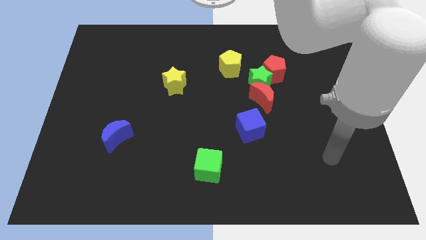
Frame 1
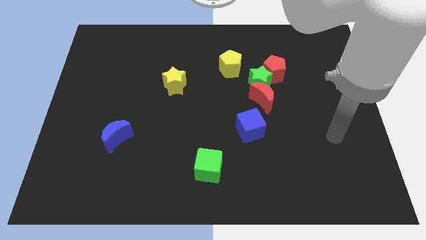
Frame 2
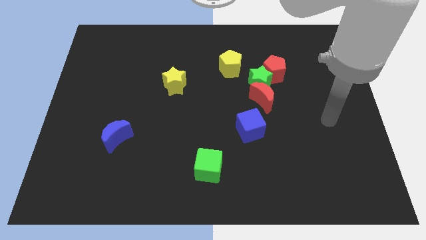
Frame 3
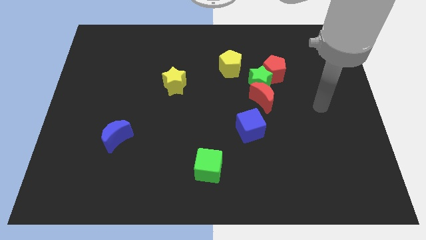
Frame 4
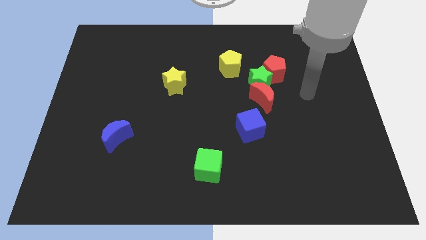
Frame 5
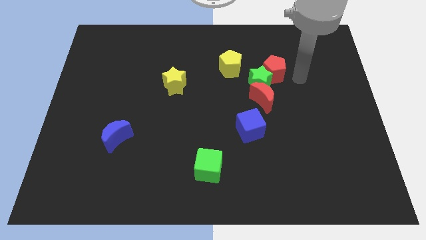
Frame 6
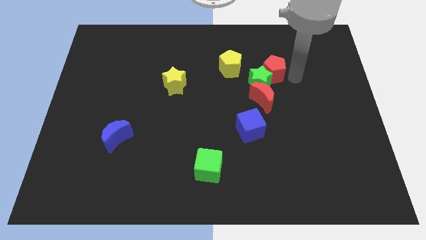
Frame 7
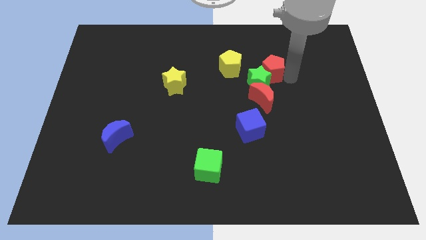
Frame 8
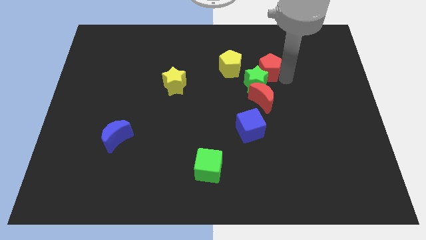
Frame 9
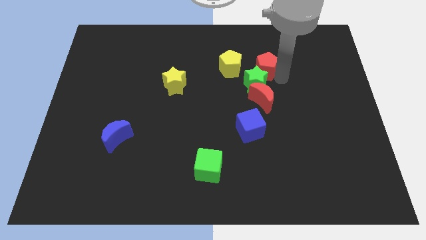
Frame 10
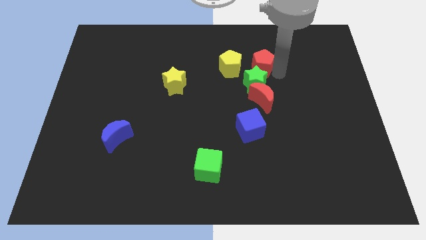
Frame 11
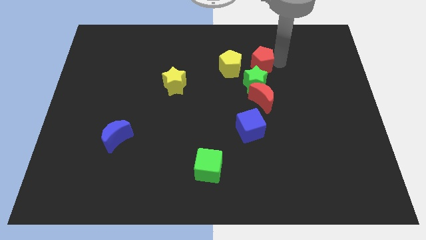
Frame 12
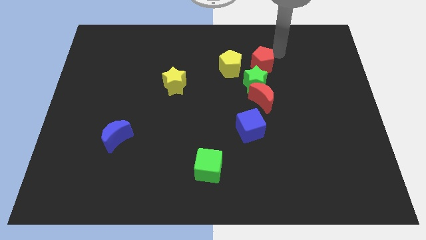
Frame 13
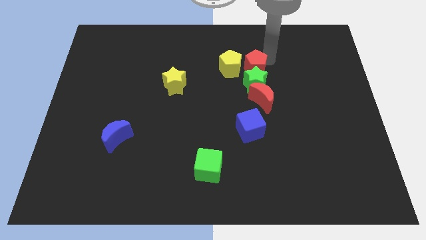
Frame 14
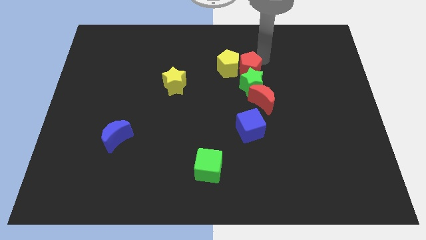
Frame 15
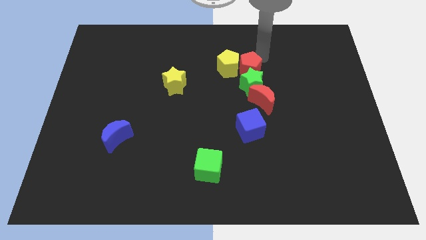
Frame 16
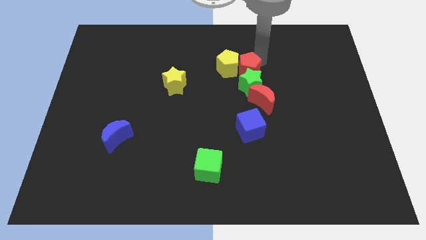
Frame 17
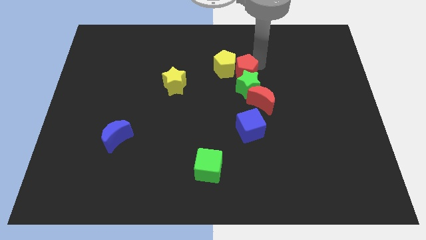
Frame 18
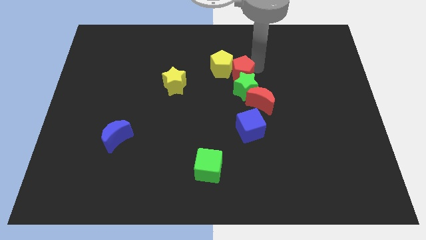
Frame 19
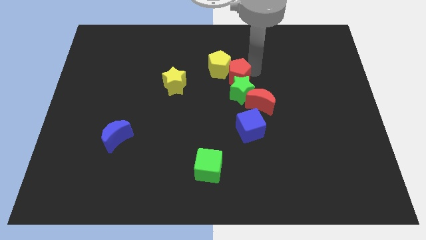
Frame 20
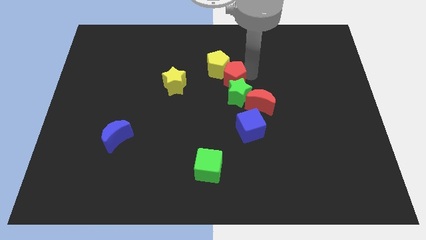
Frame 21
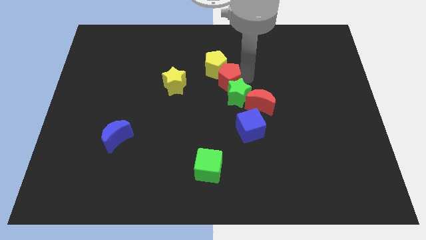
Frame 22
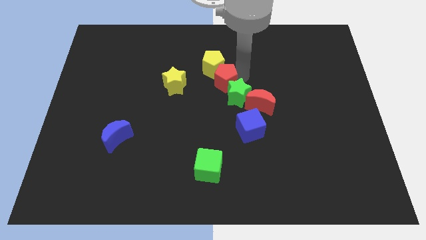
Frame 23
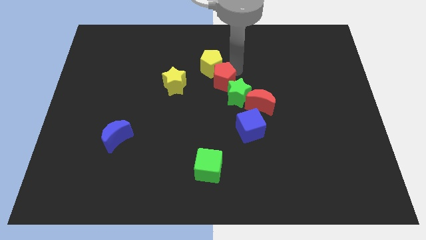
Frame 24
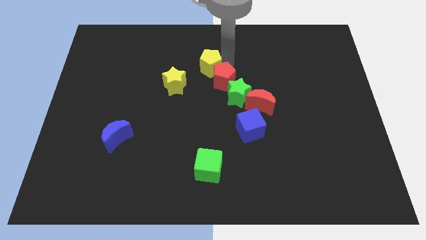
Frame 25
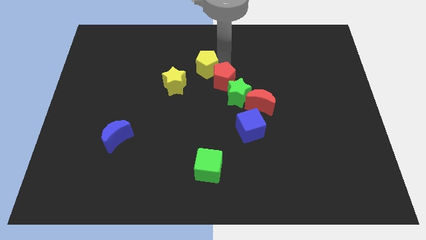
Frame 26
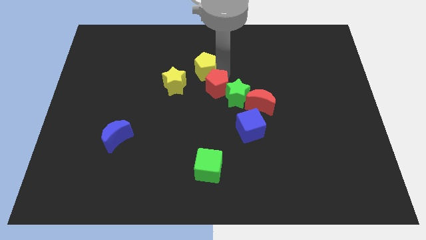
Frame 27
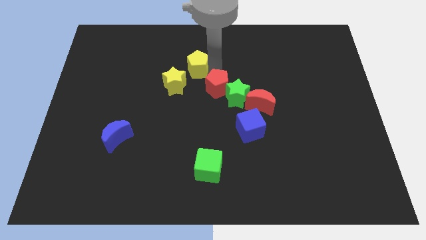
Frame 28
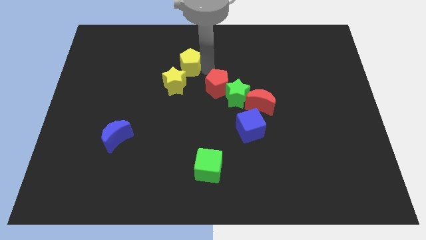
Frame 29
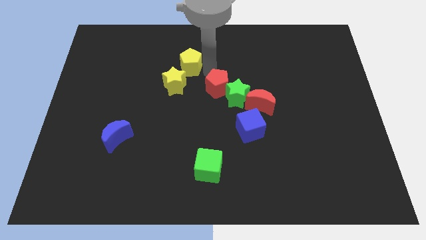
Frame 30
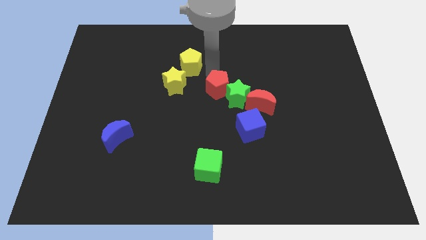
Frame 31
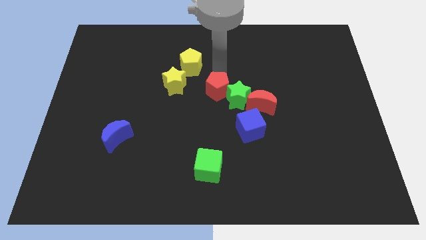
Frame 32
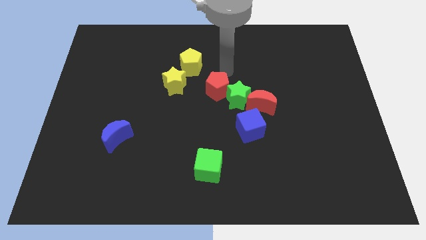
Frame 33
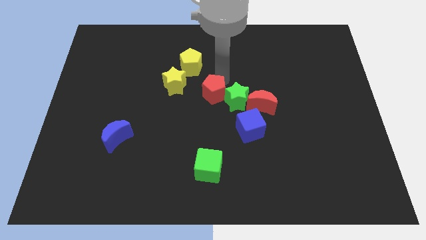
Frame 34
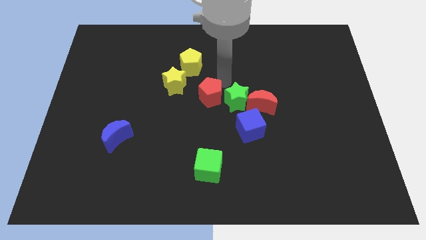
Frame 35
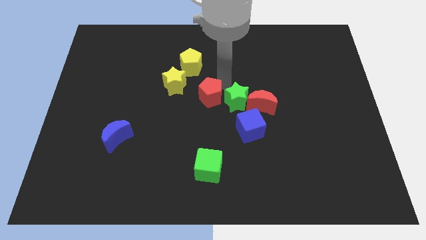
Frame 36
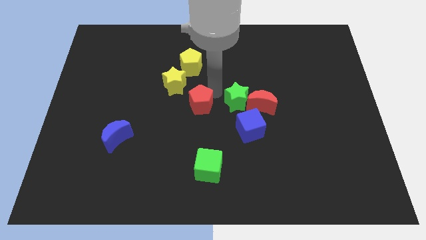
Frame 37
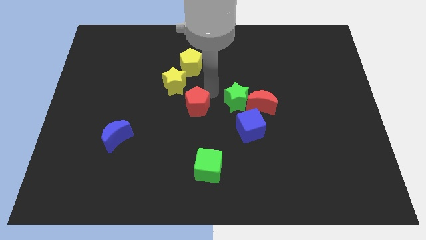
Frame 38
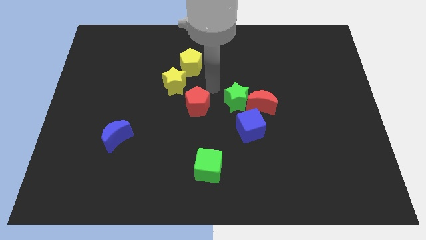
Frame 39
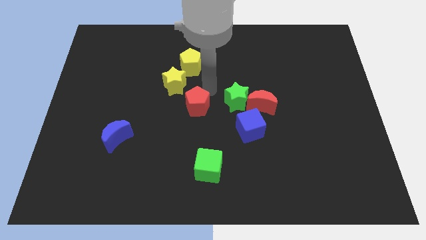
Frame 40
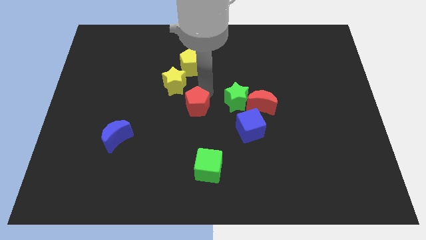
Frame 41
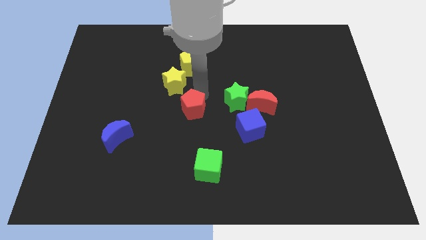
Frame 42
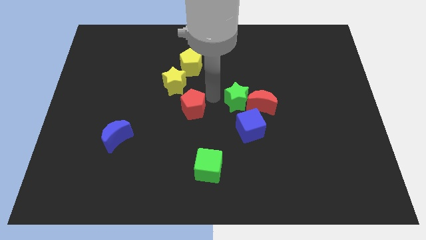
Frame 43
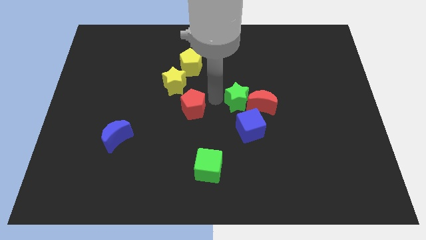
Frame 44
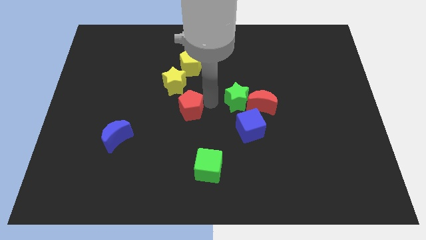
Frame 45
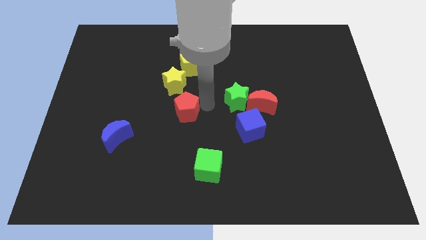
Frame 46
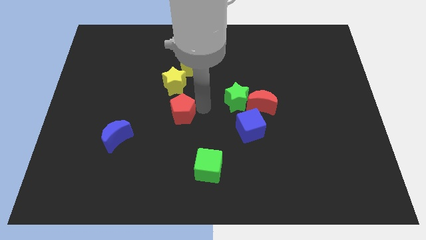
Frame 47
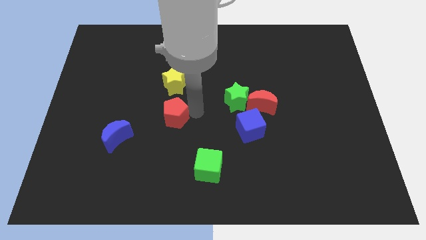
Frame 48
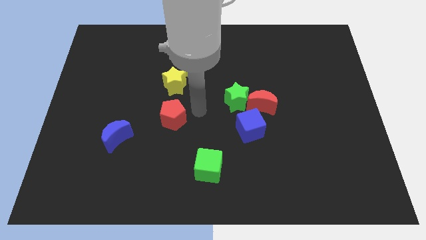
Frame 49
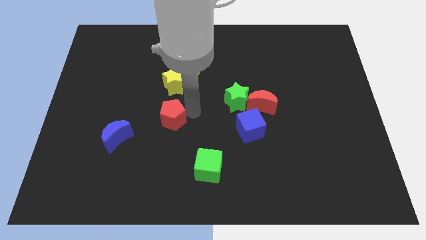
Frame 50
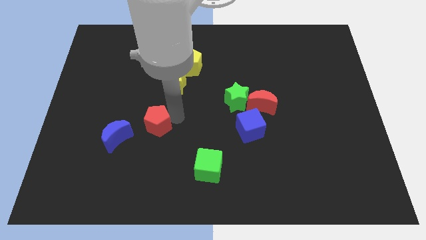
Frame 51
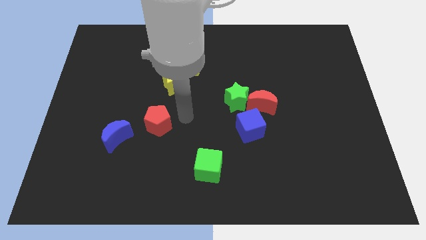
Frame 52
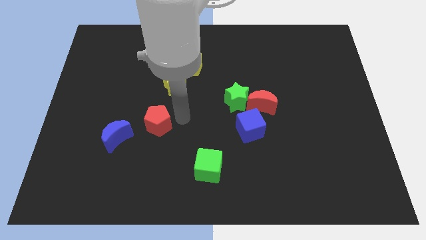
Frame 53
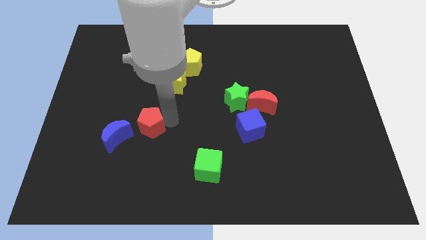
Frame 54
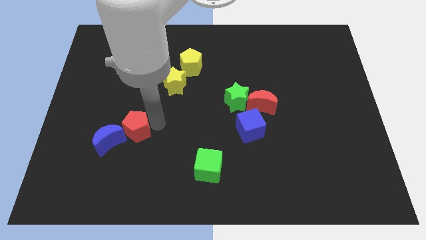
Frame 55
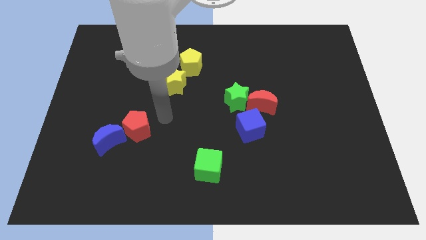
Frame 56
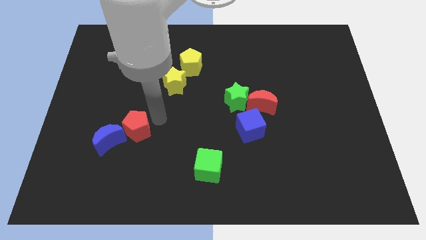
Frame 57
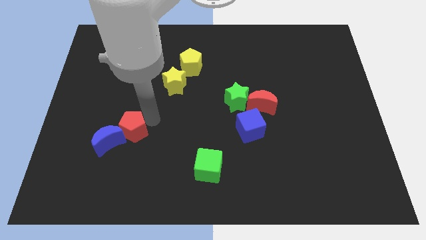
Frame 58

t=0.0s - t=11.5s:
push the red pentagon close to the blue moon

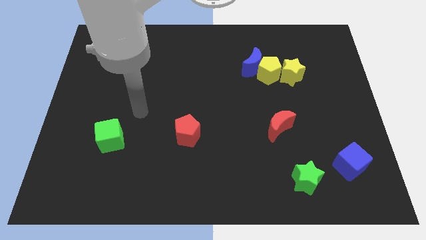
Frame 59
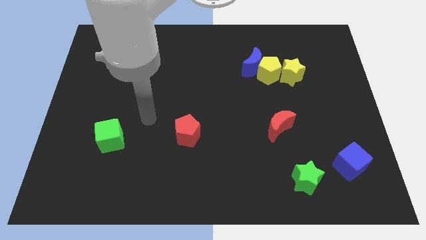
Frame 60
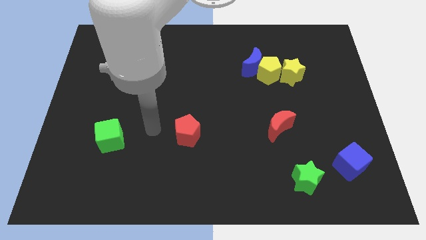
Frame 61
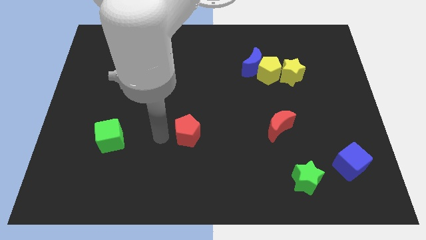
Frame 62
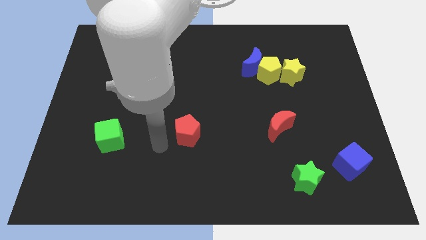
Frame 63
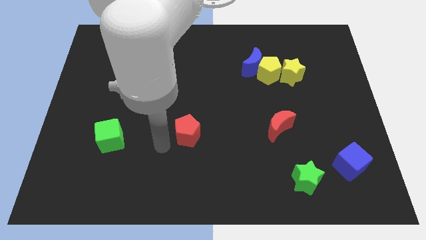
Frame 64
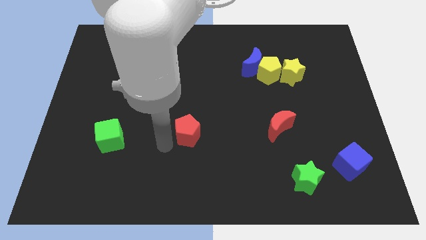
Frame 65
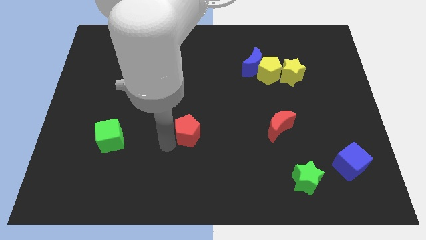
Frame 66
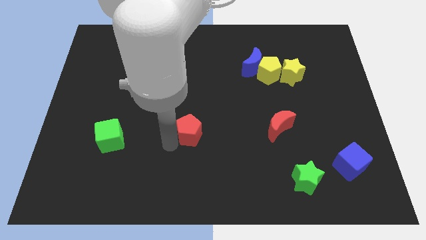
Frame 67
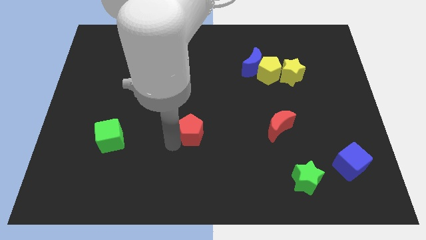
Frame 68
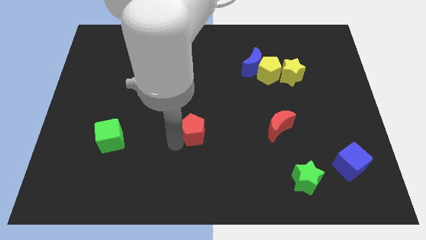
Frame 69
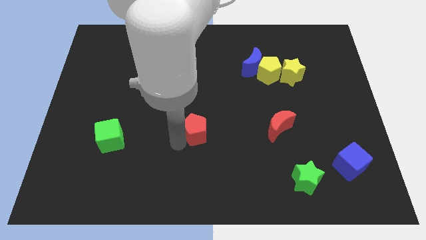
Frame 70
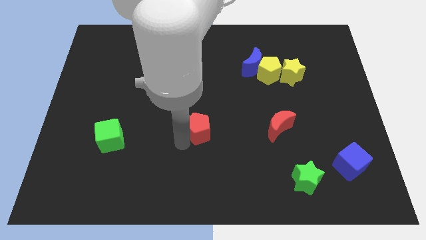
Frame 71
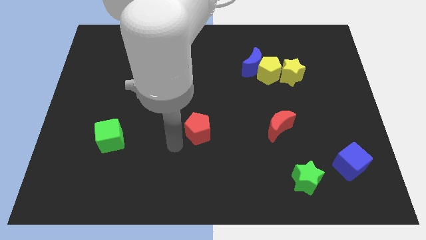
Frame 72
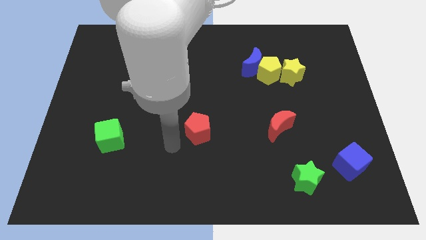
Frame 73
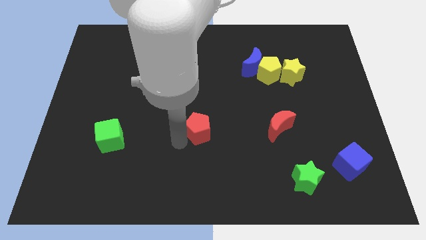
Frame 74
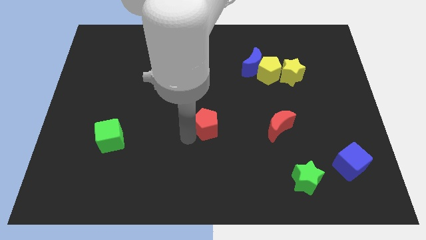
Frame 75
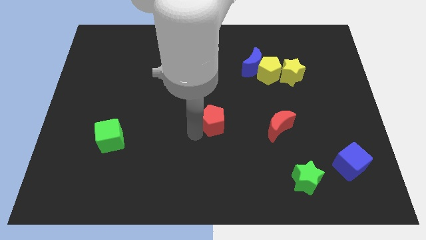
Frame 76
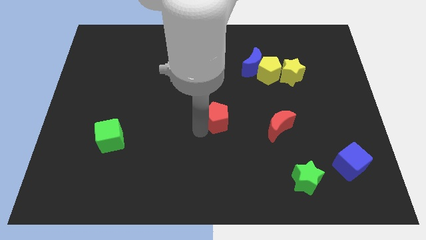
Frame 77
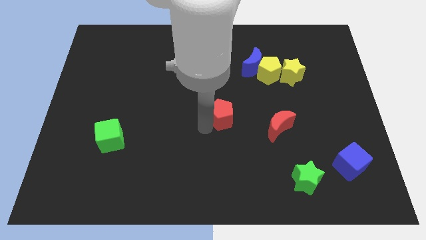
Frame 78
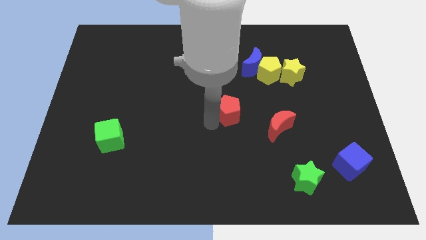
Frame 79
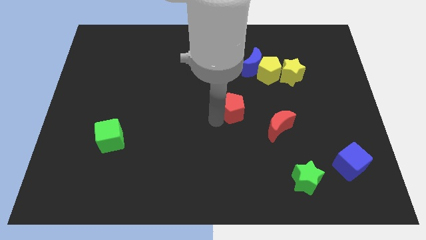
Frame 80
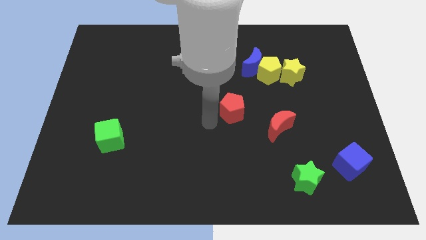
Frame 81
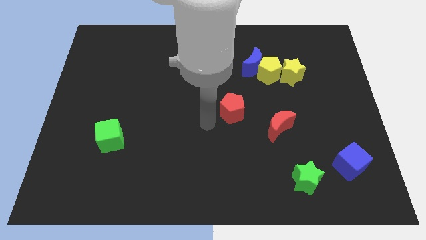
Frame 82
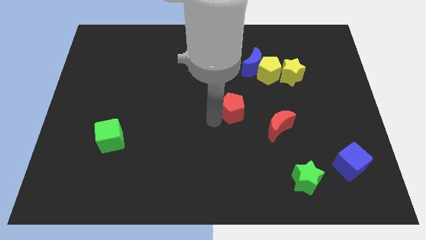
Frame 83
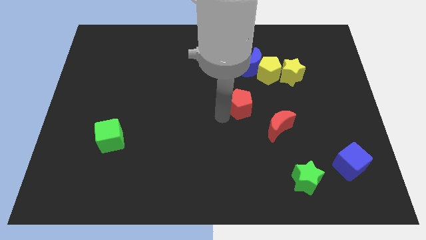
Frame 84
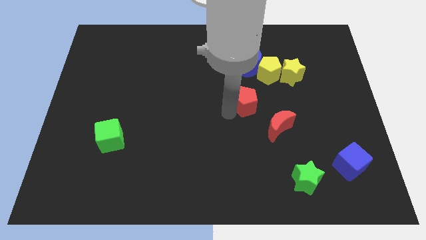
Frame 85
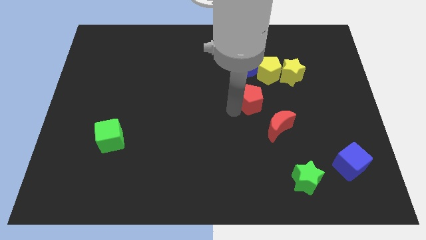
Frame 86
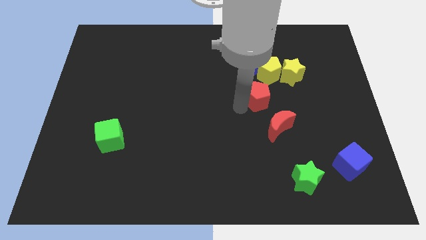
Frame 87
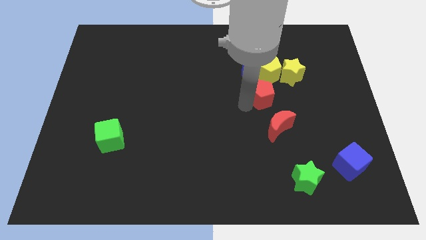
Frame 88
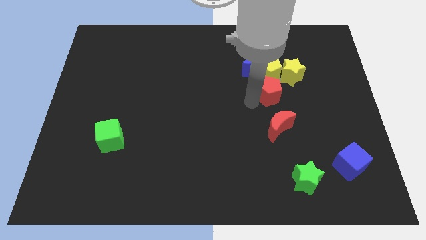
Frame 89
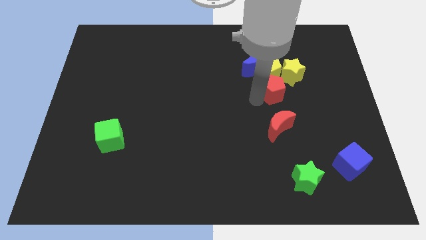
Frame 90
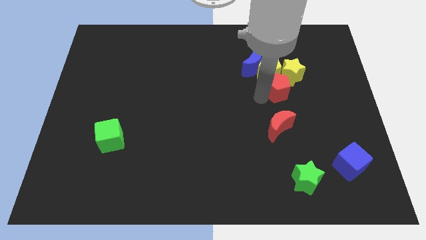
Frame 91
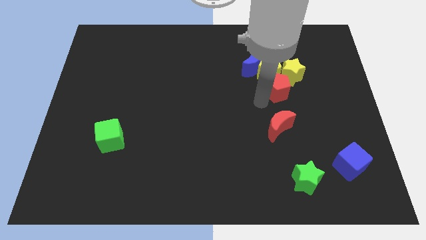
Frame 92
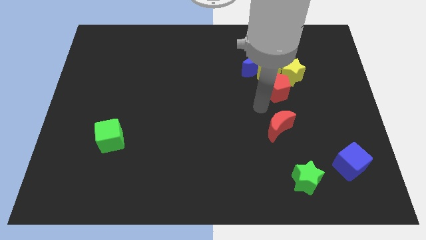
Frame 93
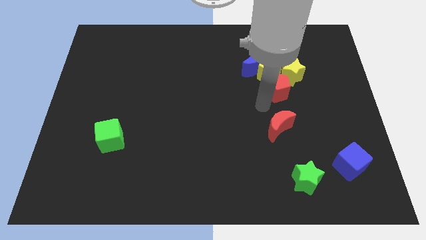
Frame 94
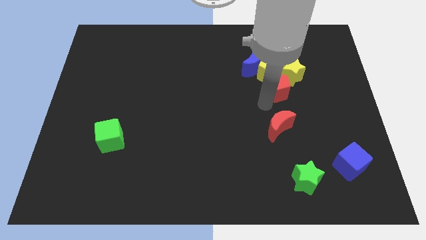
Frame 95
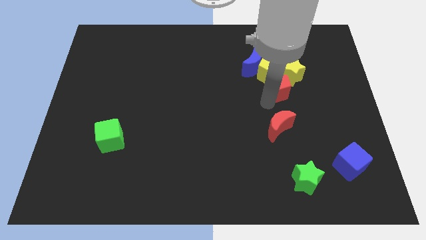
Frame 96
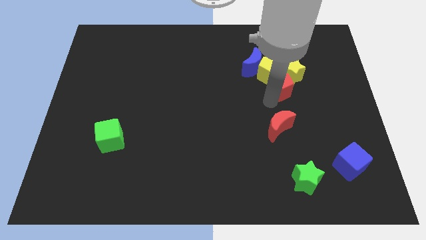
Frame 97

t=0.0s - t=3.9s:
push the red pentagon next to the yellow star
